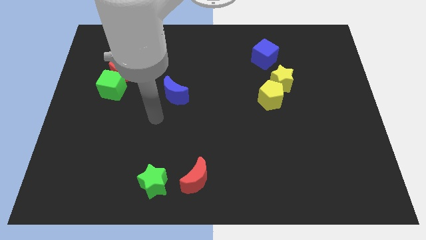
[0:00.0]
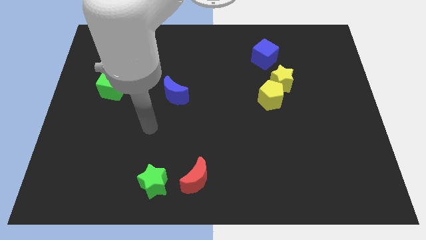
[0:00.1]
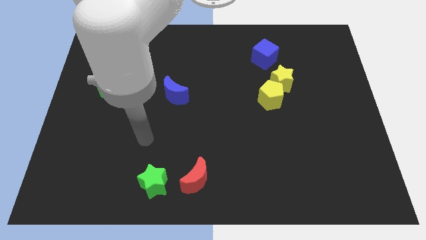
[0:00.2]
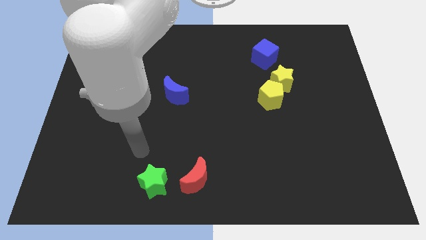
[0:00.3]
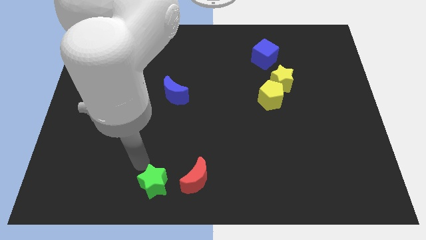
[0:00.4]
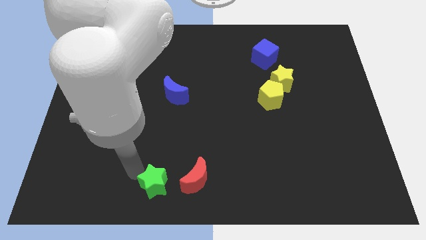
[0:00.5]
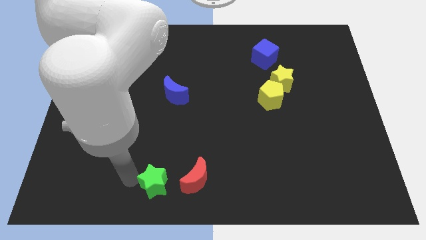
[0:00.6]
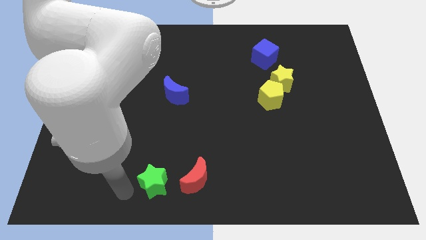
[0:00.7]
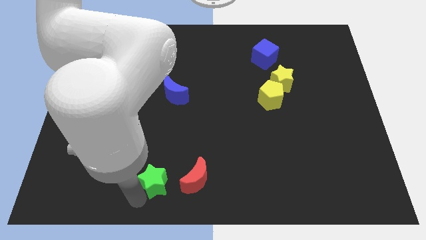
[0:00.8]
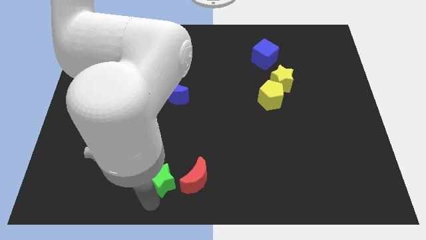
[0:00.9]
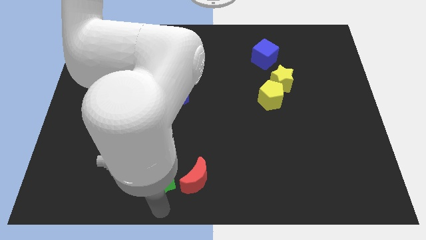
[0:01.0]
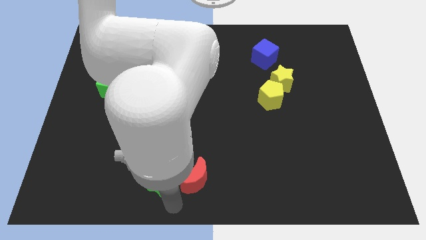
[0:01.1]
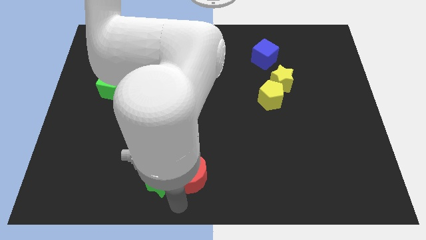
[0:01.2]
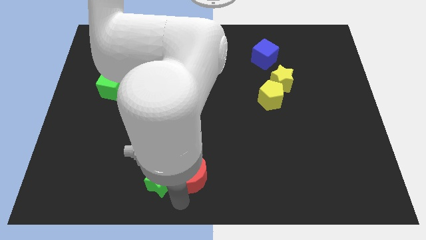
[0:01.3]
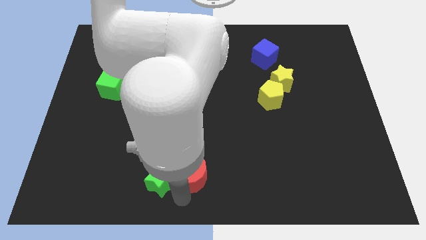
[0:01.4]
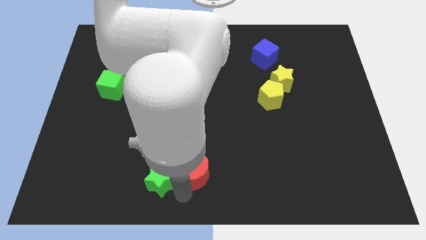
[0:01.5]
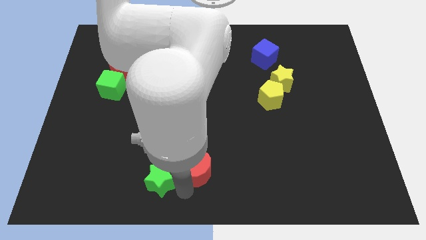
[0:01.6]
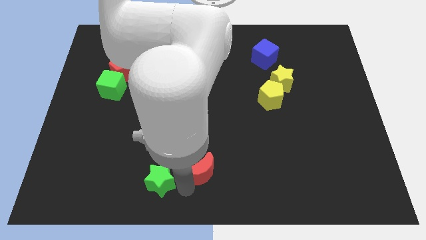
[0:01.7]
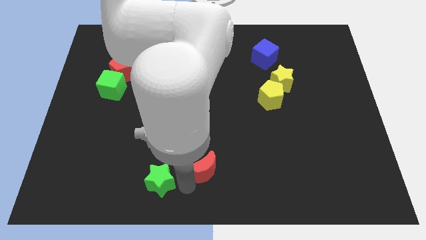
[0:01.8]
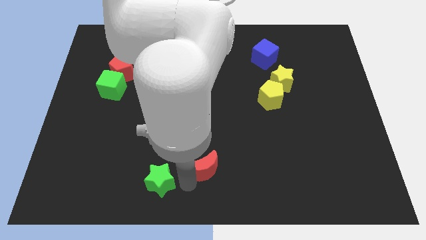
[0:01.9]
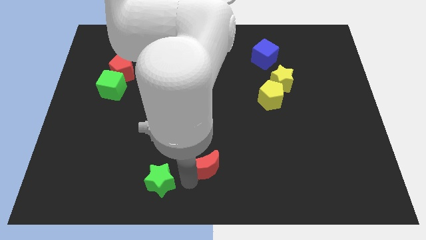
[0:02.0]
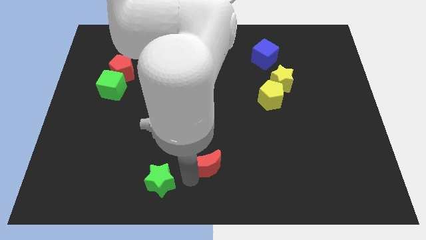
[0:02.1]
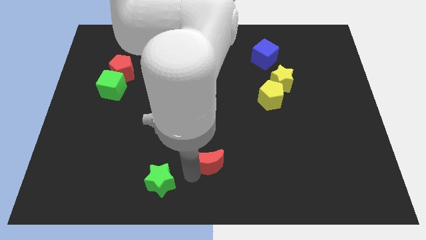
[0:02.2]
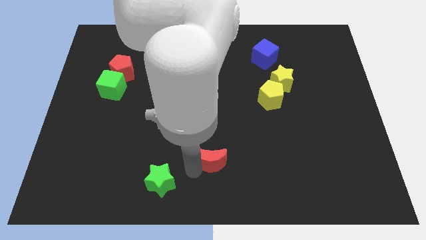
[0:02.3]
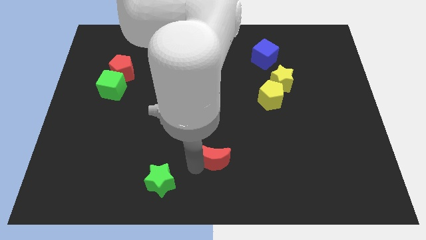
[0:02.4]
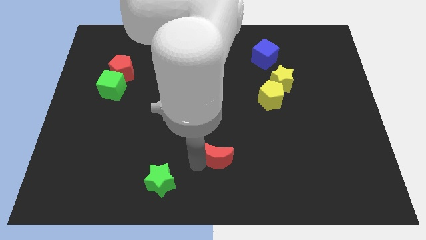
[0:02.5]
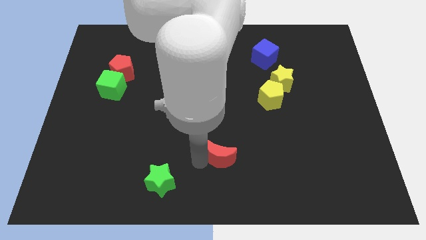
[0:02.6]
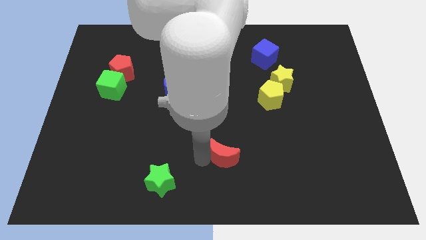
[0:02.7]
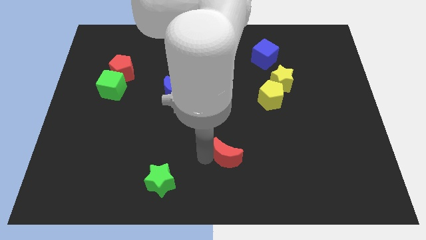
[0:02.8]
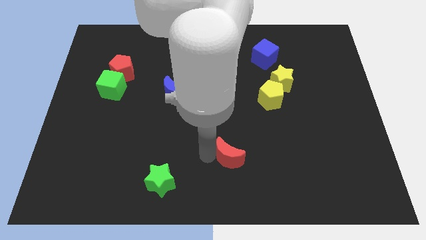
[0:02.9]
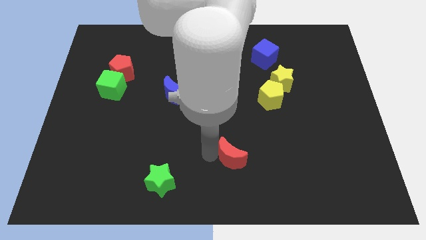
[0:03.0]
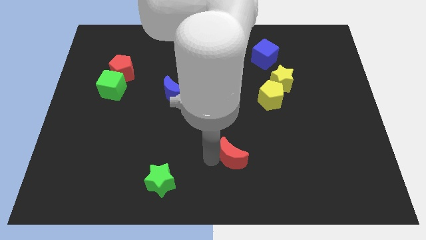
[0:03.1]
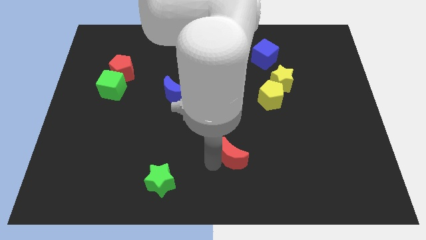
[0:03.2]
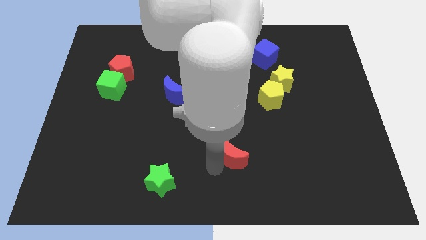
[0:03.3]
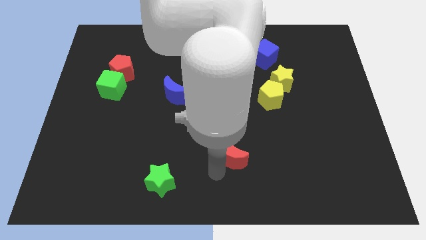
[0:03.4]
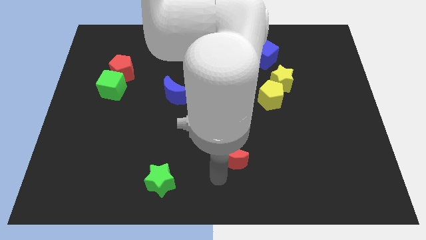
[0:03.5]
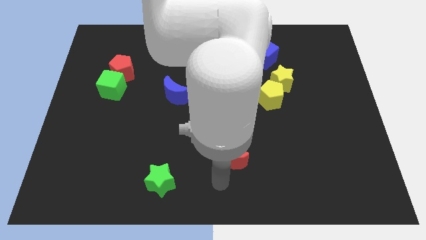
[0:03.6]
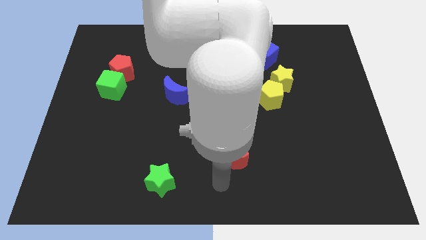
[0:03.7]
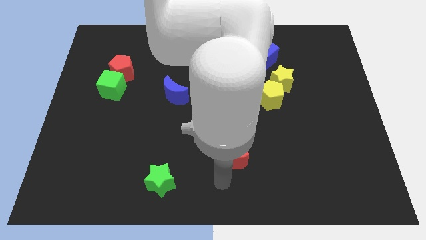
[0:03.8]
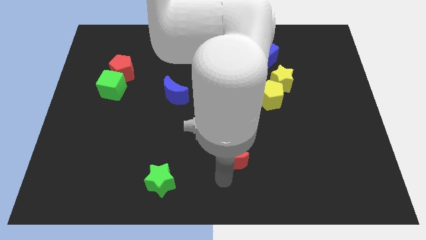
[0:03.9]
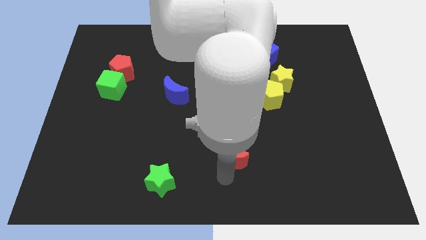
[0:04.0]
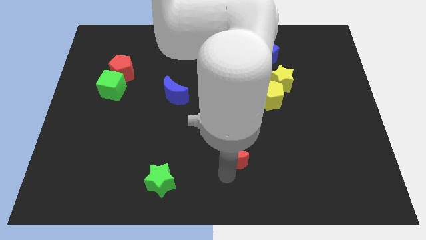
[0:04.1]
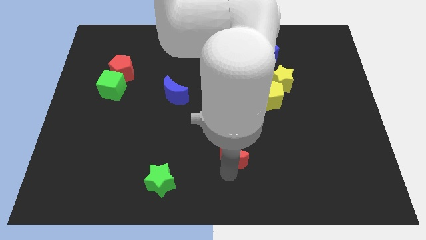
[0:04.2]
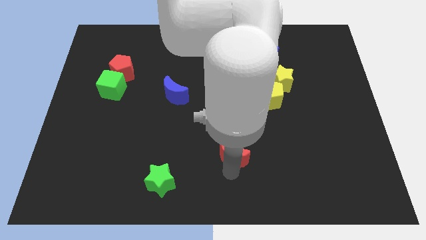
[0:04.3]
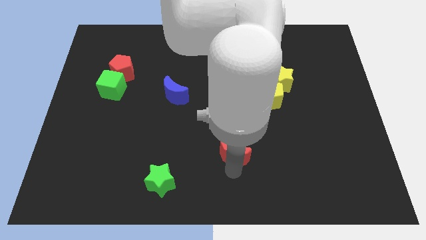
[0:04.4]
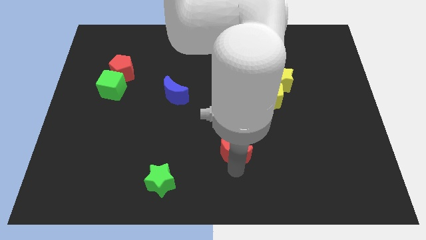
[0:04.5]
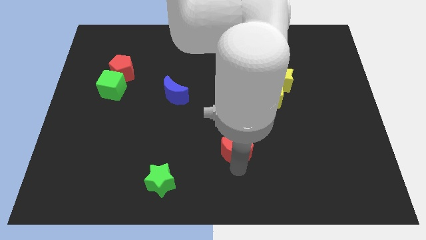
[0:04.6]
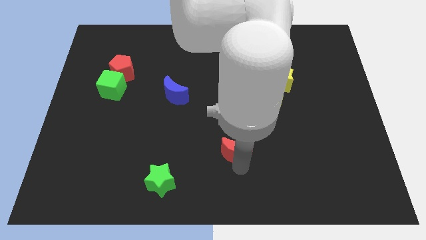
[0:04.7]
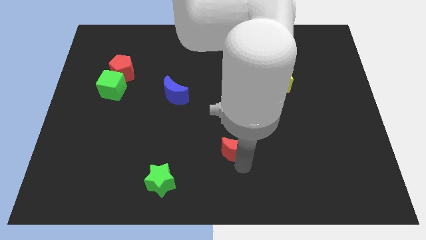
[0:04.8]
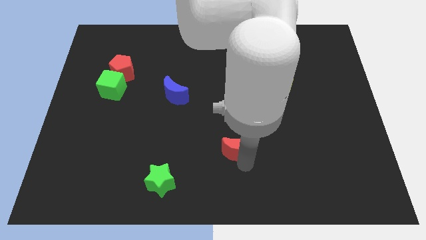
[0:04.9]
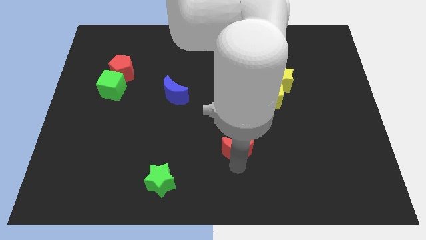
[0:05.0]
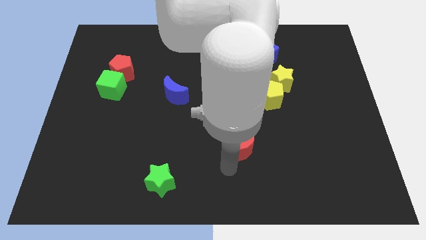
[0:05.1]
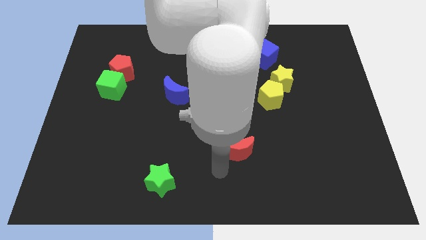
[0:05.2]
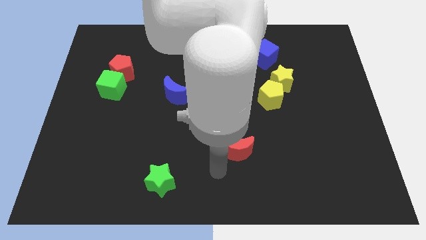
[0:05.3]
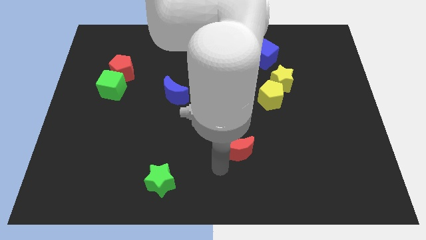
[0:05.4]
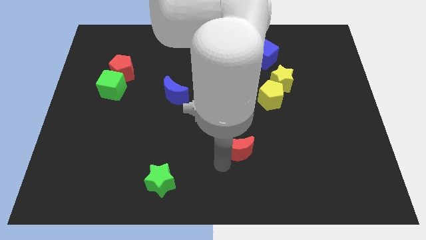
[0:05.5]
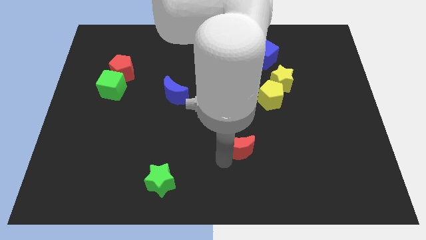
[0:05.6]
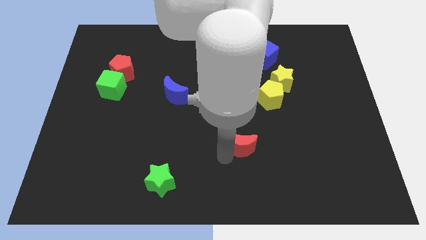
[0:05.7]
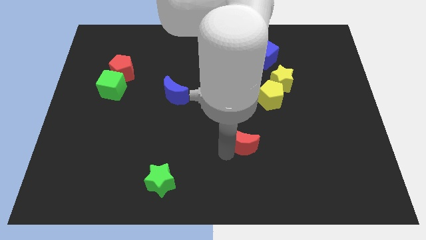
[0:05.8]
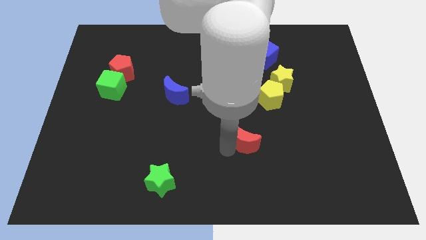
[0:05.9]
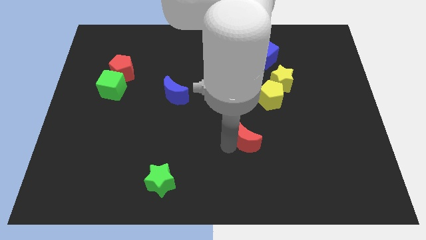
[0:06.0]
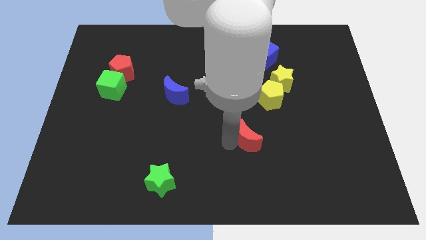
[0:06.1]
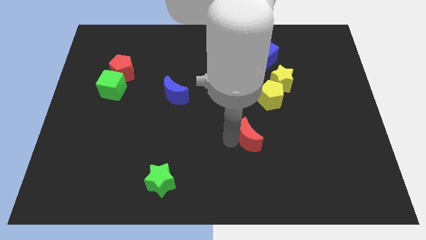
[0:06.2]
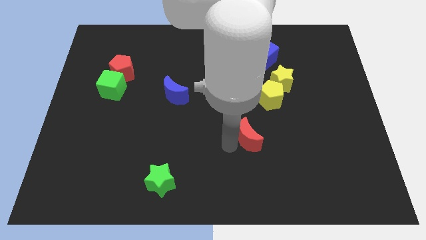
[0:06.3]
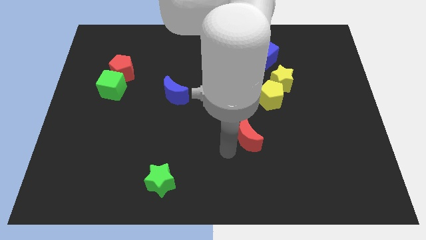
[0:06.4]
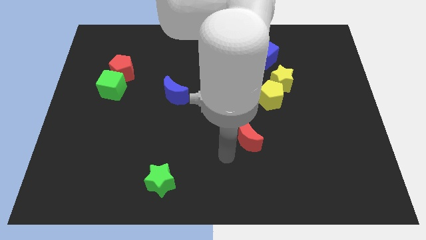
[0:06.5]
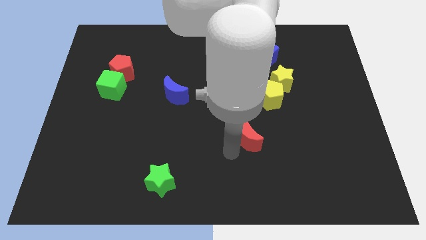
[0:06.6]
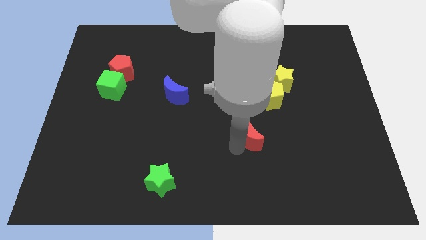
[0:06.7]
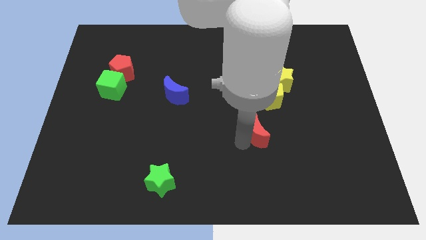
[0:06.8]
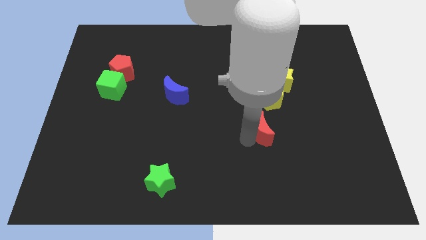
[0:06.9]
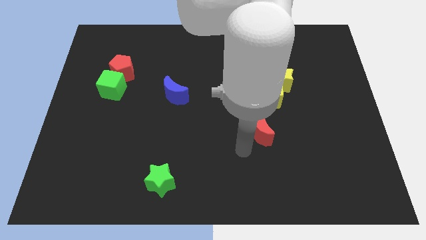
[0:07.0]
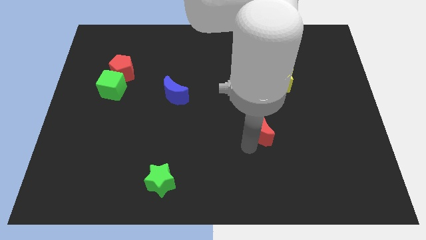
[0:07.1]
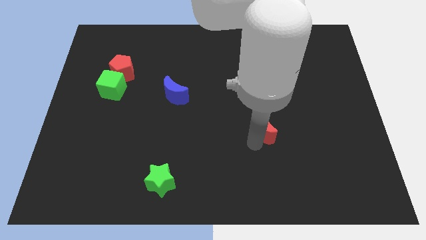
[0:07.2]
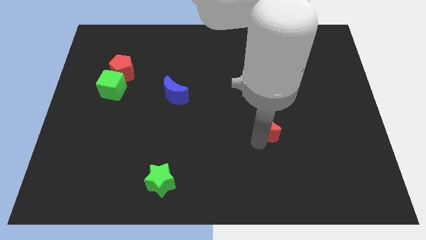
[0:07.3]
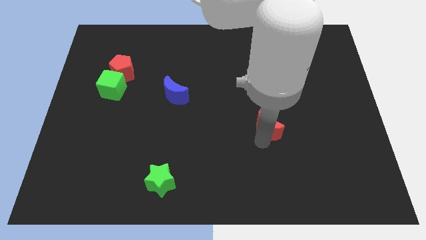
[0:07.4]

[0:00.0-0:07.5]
slide the red moon upwards and right diagonally

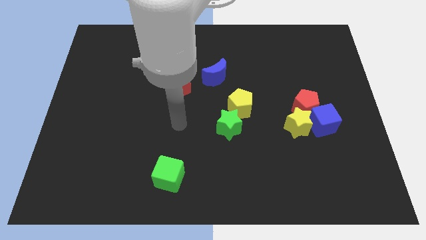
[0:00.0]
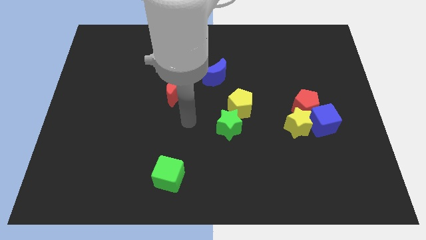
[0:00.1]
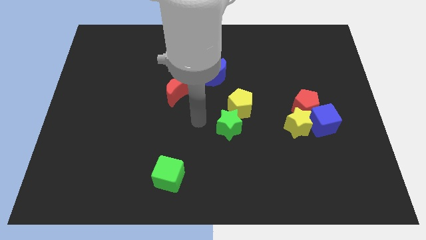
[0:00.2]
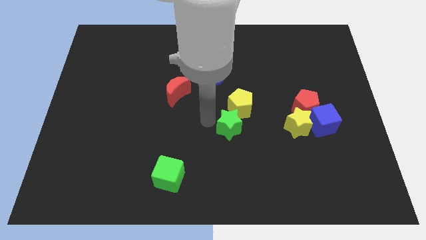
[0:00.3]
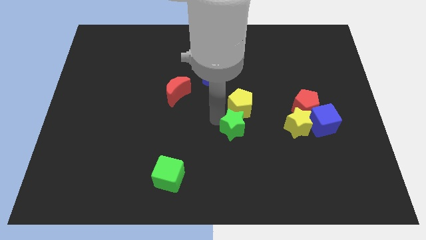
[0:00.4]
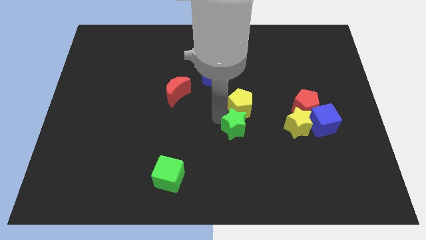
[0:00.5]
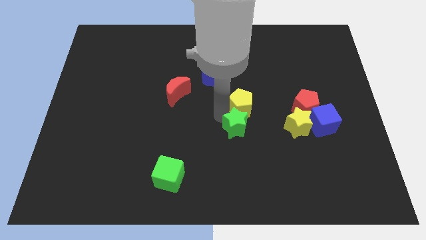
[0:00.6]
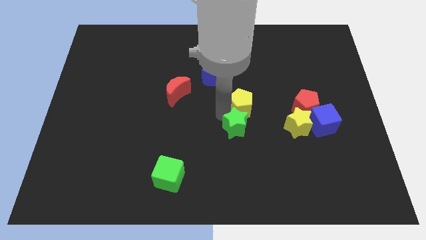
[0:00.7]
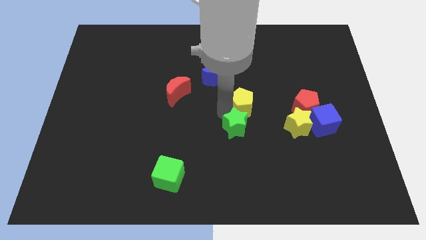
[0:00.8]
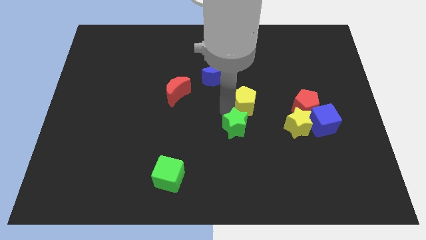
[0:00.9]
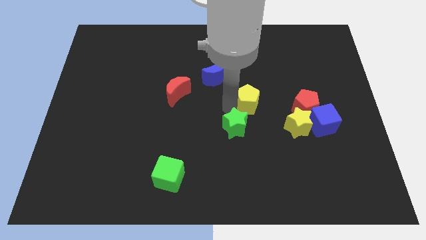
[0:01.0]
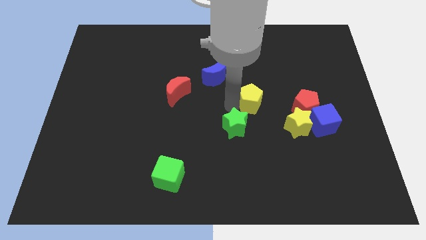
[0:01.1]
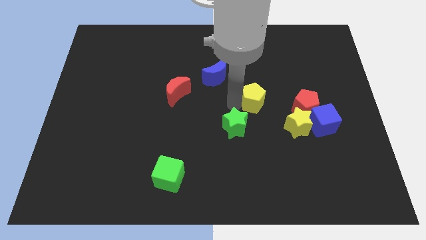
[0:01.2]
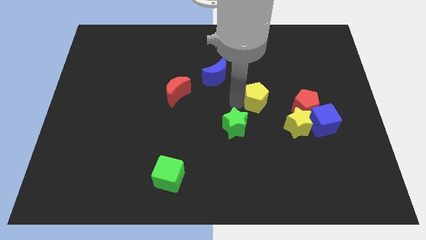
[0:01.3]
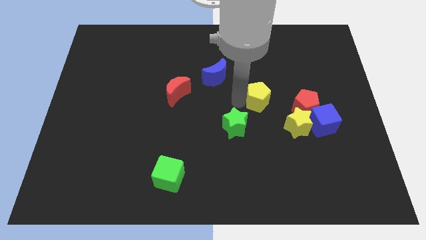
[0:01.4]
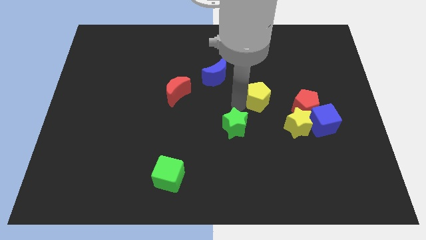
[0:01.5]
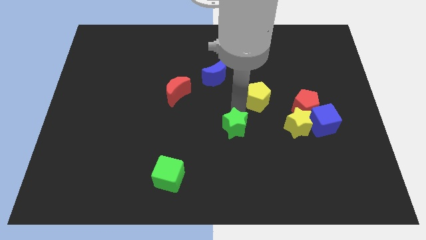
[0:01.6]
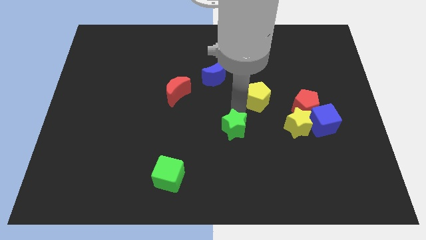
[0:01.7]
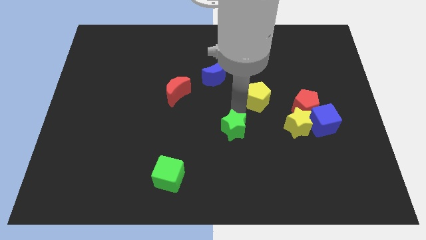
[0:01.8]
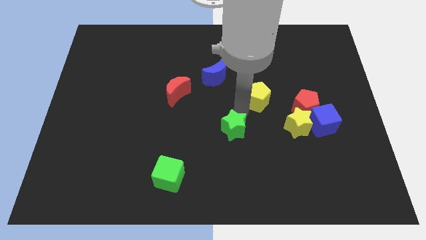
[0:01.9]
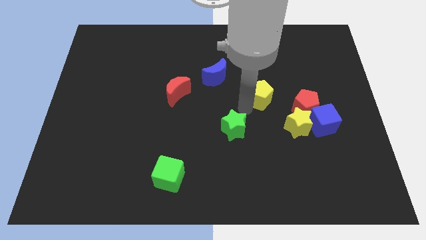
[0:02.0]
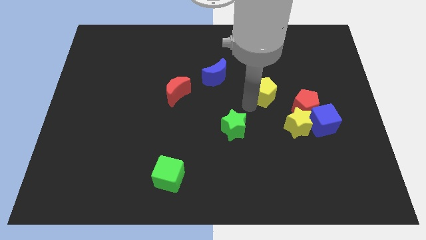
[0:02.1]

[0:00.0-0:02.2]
slightly move the yellow pentagon up and right
